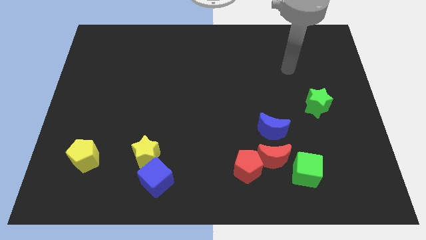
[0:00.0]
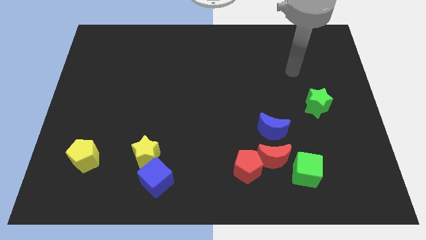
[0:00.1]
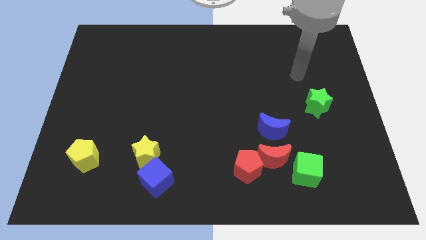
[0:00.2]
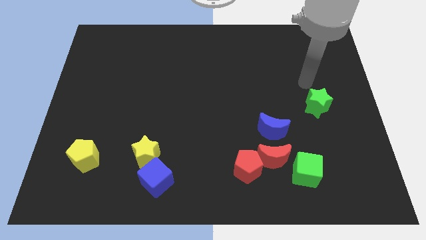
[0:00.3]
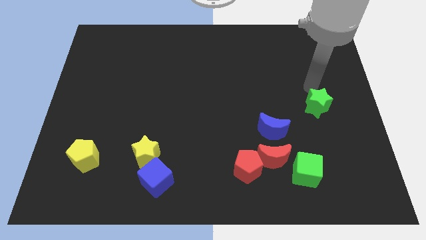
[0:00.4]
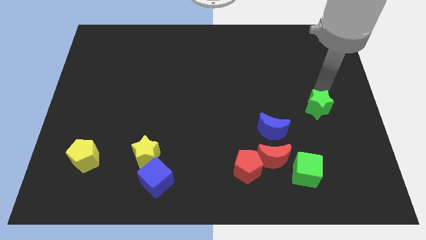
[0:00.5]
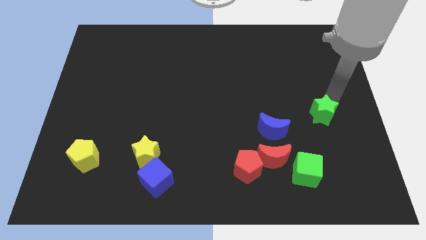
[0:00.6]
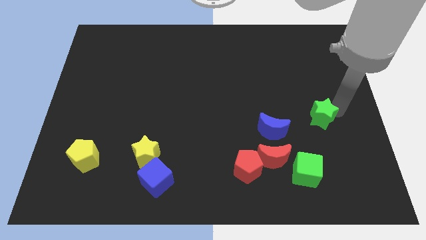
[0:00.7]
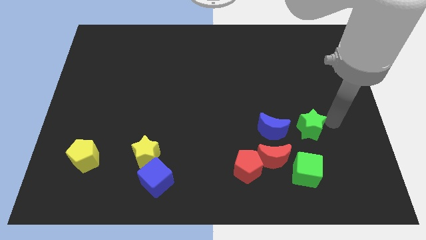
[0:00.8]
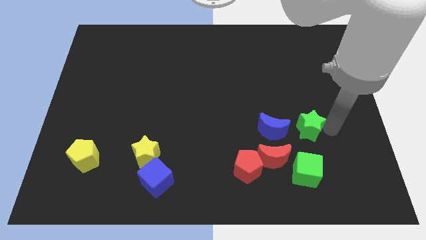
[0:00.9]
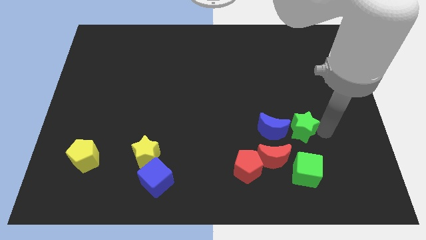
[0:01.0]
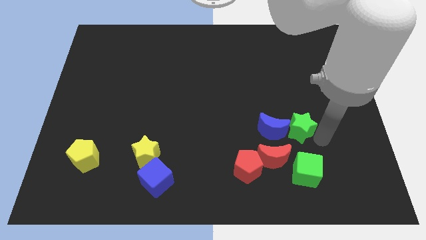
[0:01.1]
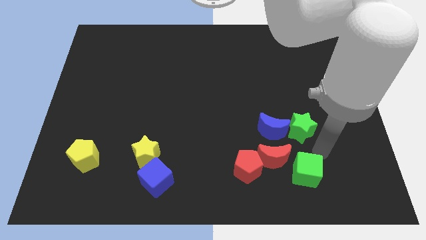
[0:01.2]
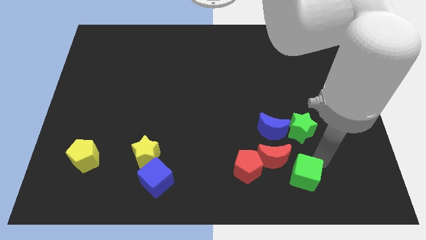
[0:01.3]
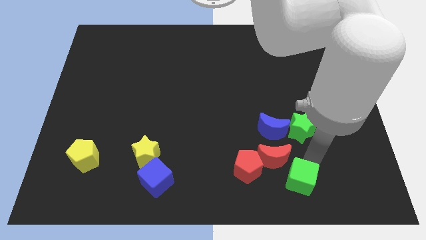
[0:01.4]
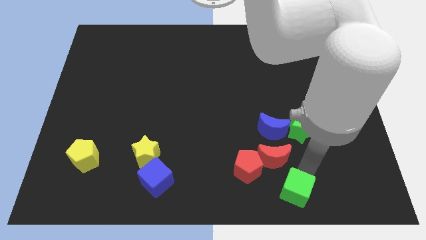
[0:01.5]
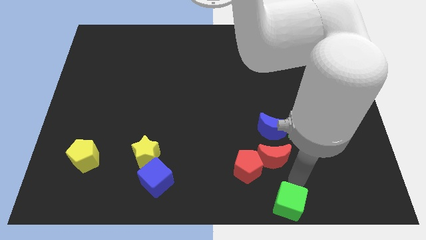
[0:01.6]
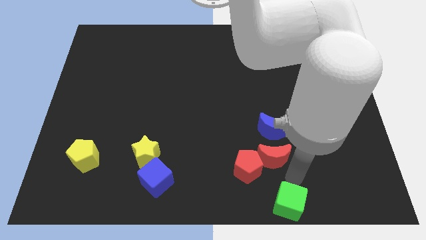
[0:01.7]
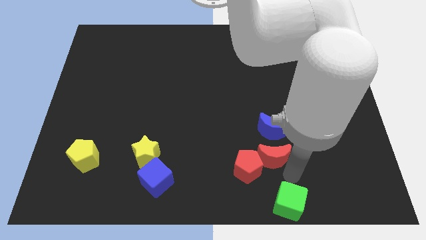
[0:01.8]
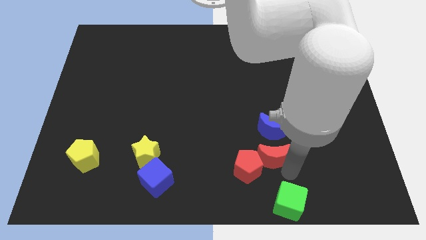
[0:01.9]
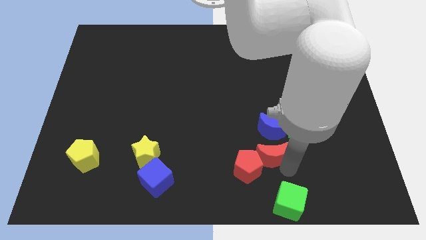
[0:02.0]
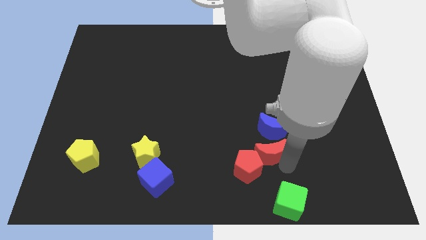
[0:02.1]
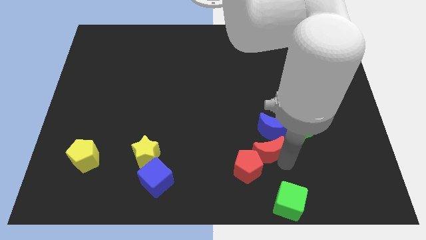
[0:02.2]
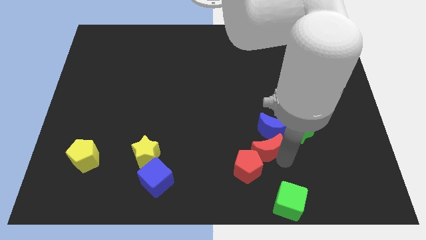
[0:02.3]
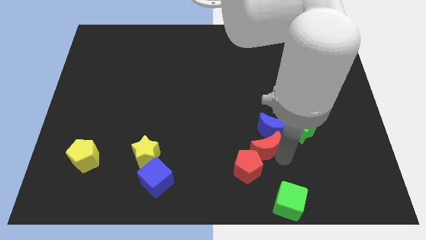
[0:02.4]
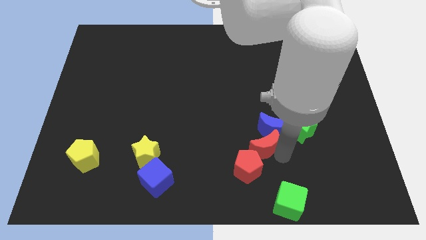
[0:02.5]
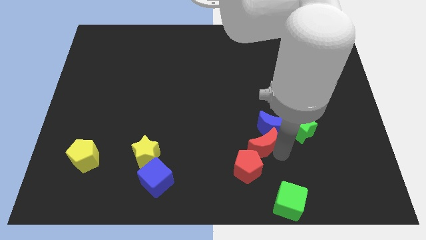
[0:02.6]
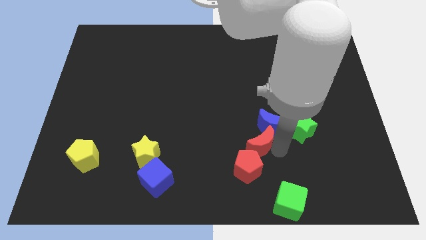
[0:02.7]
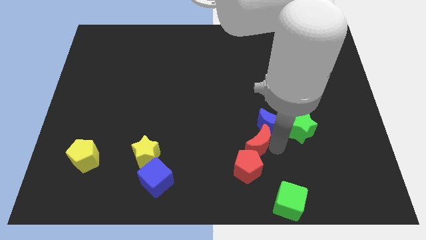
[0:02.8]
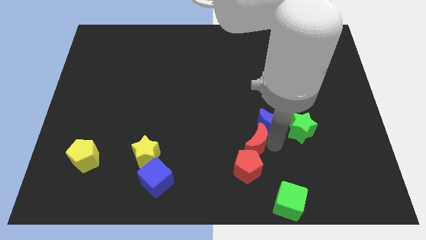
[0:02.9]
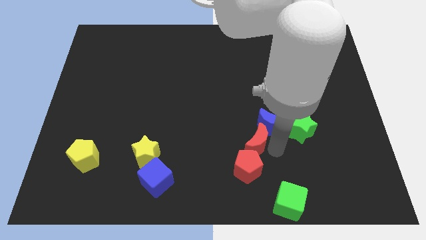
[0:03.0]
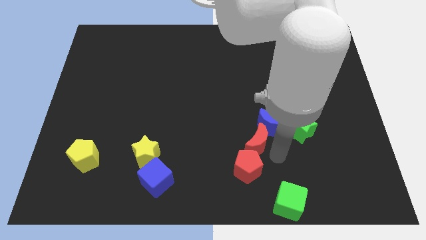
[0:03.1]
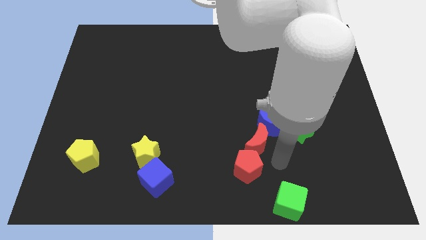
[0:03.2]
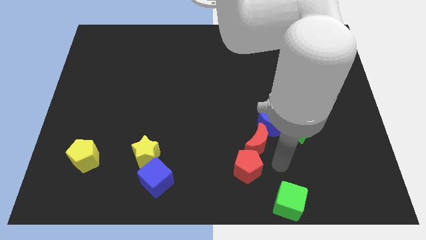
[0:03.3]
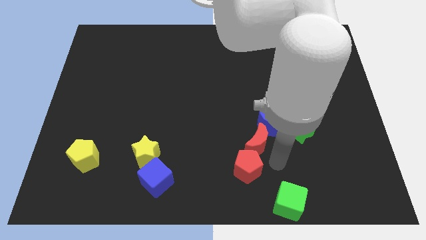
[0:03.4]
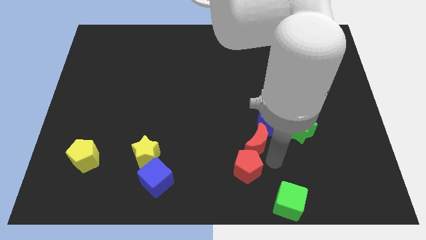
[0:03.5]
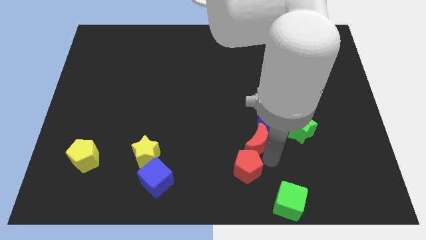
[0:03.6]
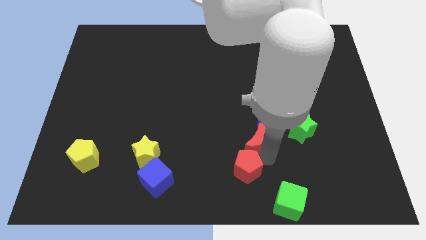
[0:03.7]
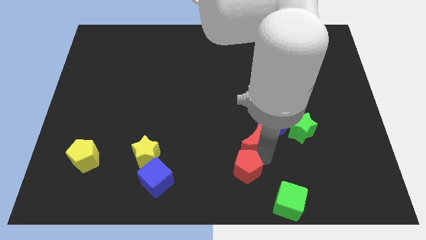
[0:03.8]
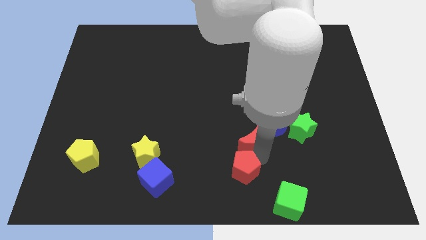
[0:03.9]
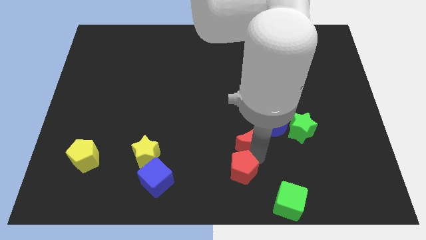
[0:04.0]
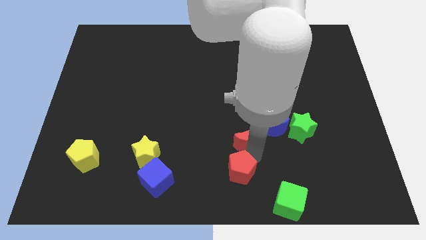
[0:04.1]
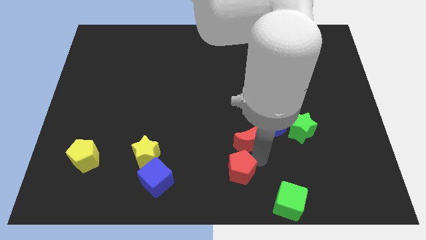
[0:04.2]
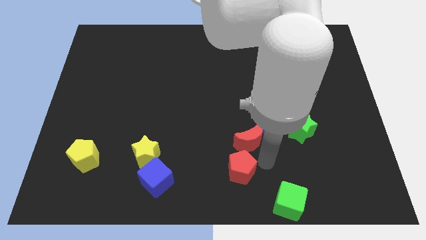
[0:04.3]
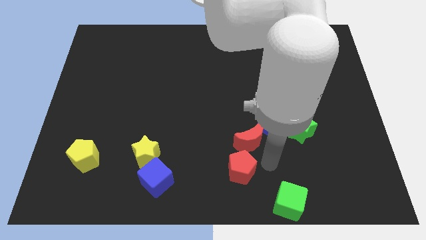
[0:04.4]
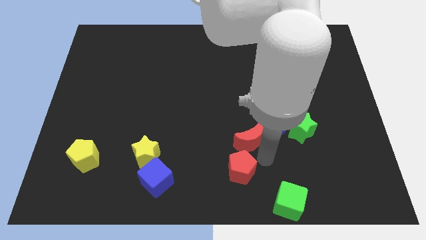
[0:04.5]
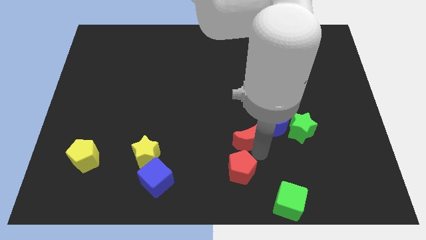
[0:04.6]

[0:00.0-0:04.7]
slide the red moon diagonally upwards and to the left a little

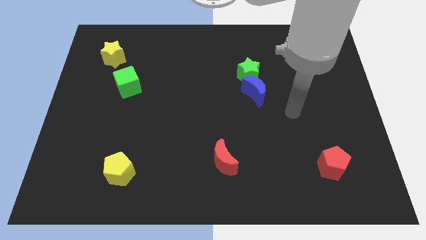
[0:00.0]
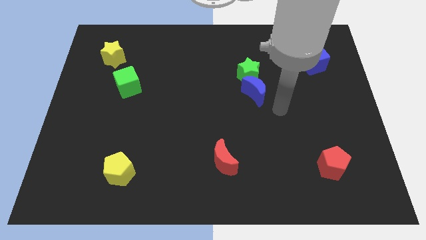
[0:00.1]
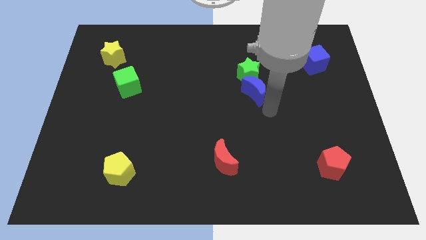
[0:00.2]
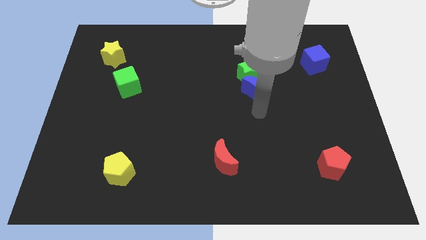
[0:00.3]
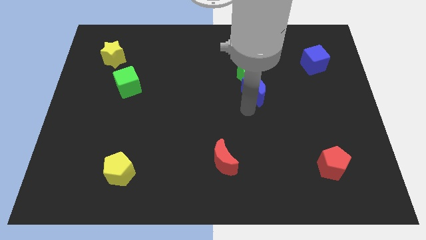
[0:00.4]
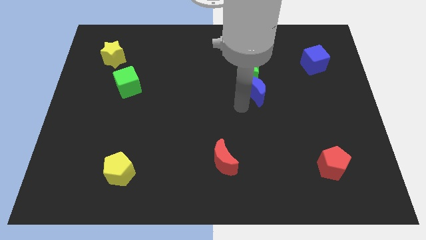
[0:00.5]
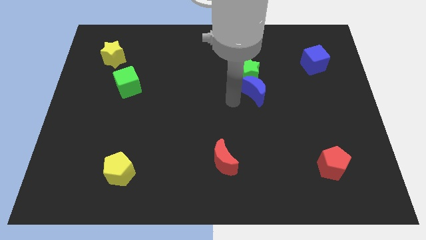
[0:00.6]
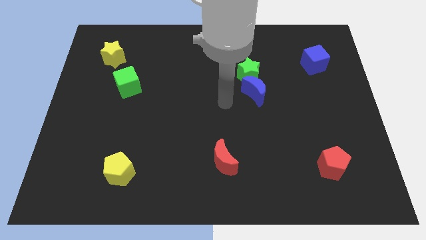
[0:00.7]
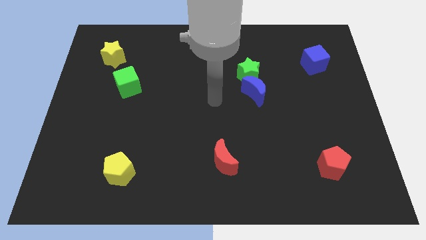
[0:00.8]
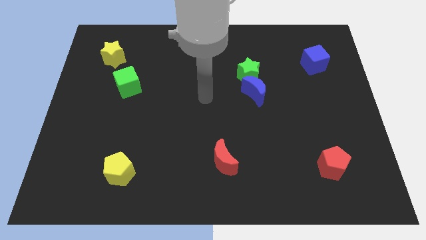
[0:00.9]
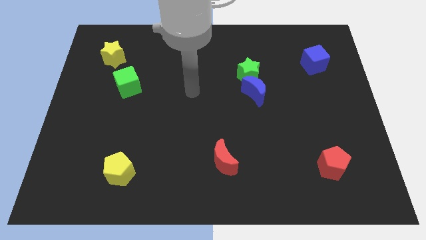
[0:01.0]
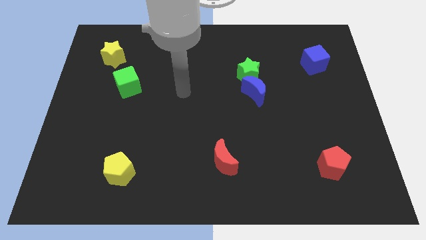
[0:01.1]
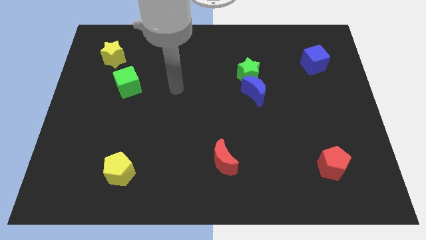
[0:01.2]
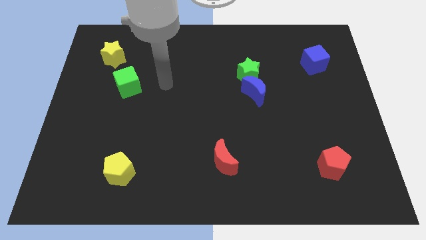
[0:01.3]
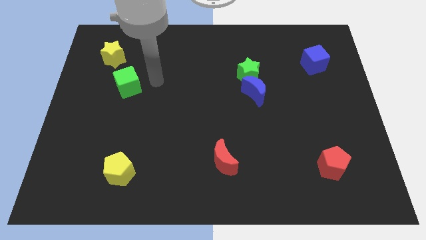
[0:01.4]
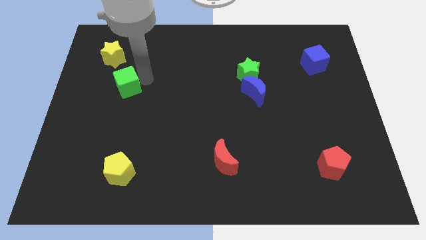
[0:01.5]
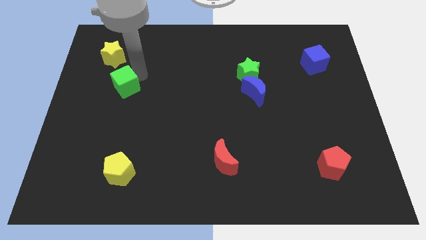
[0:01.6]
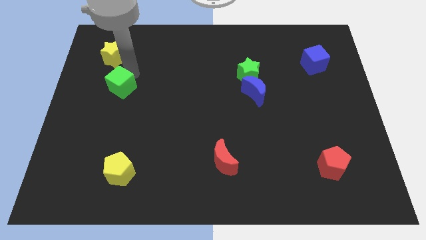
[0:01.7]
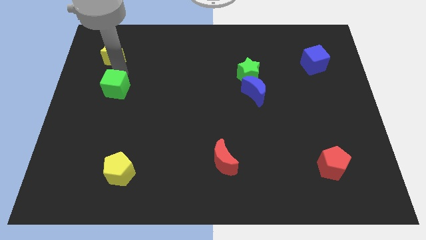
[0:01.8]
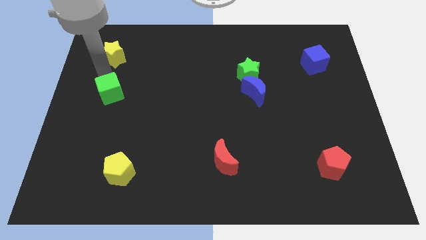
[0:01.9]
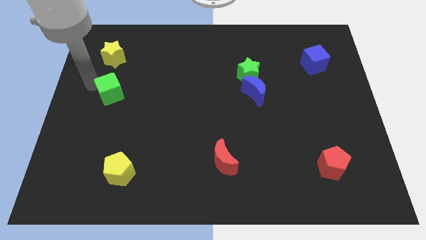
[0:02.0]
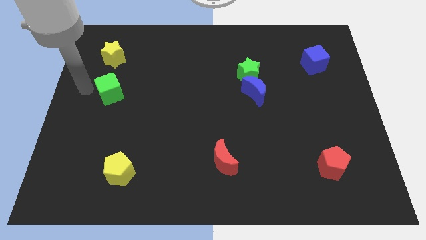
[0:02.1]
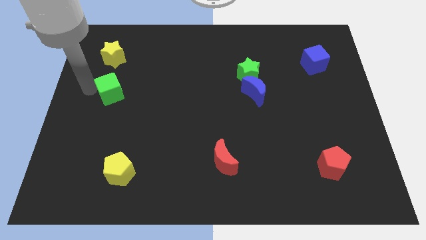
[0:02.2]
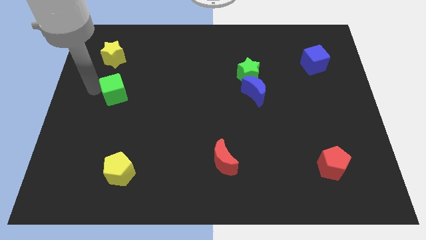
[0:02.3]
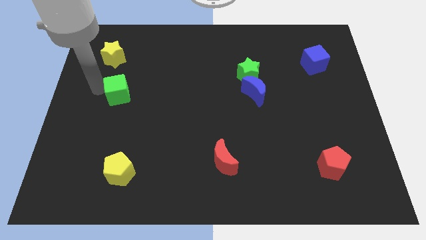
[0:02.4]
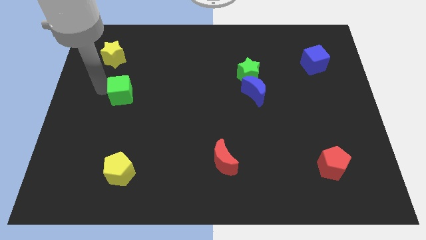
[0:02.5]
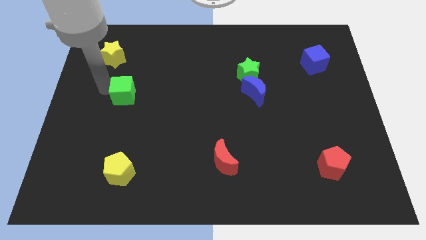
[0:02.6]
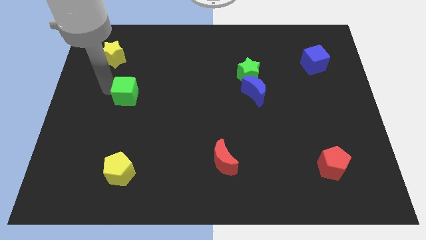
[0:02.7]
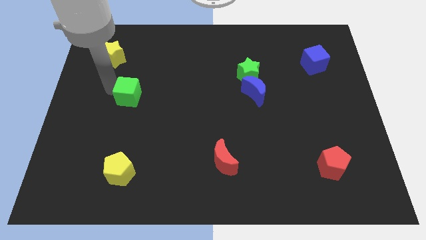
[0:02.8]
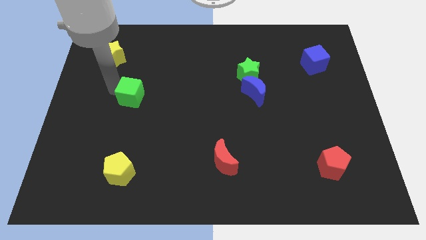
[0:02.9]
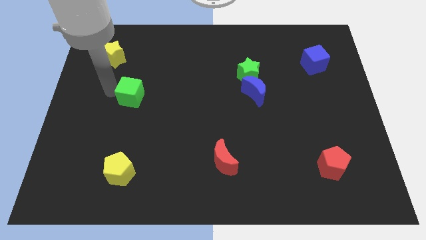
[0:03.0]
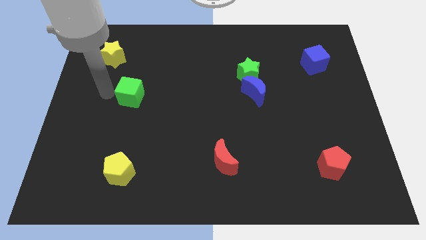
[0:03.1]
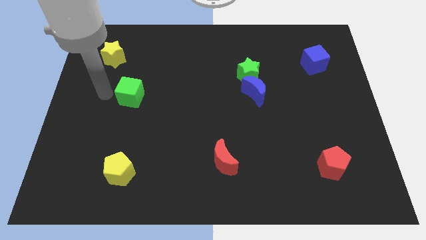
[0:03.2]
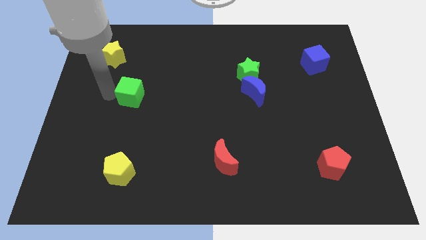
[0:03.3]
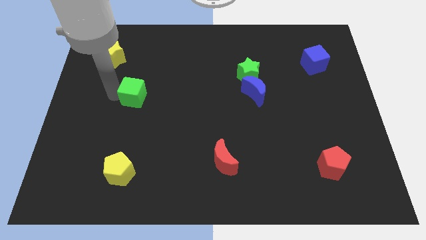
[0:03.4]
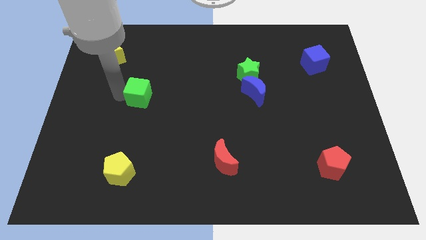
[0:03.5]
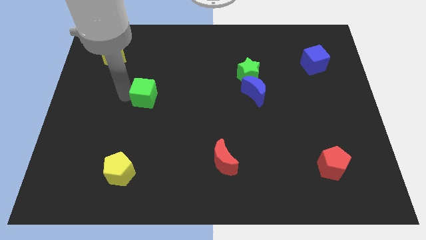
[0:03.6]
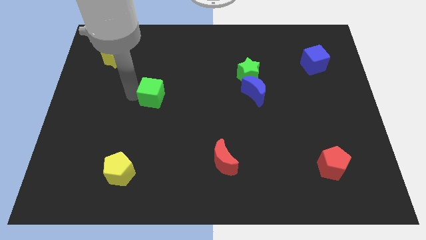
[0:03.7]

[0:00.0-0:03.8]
slide the green cube a little bit diagonally down and to the right
